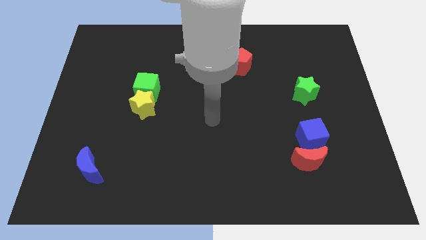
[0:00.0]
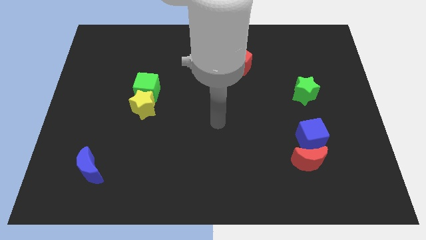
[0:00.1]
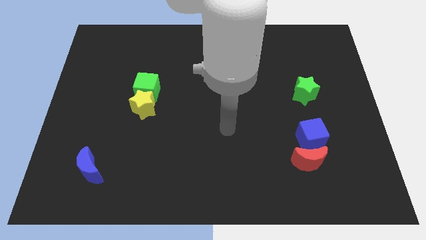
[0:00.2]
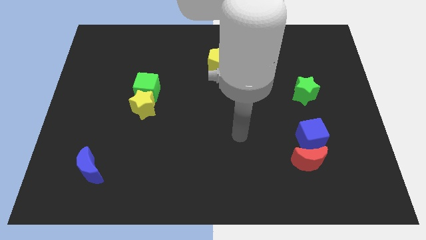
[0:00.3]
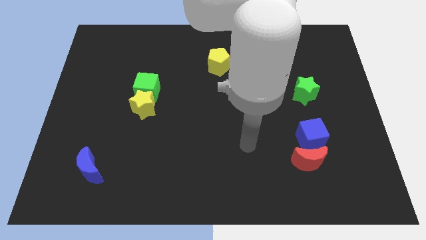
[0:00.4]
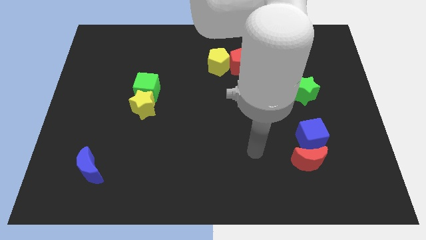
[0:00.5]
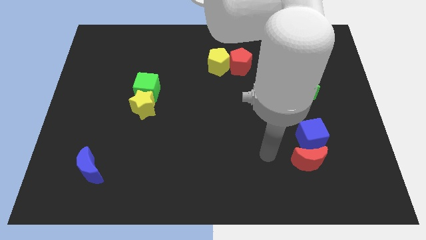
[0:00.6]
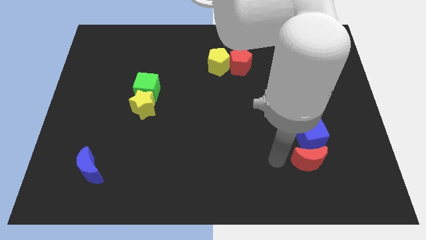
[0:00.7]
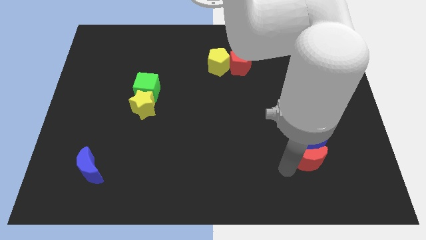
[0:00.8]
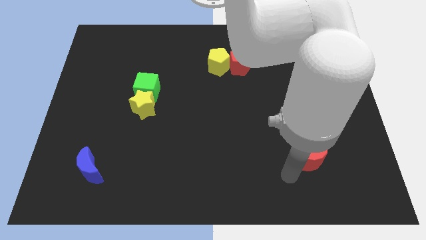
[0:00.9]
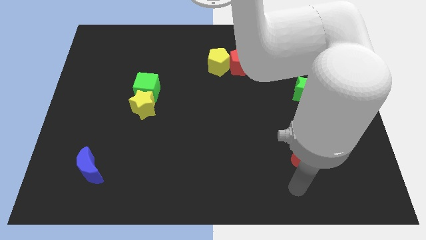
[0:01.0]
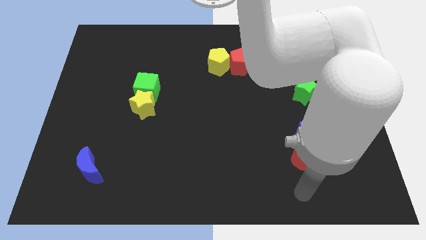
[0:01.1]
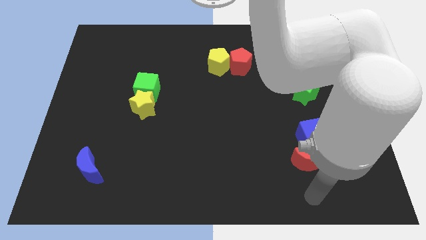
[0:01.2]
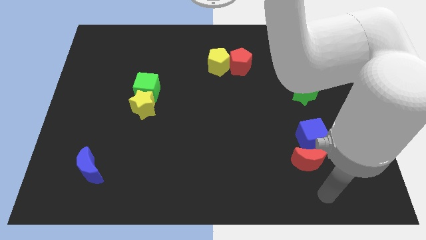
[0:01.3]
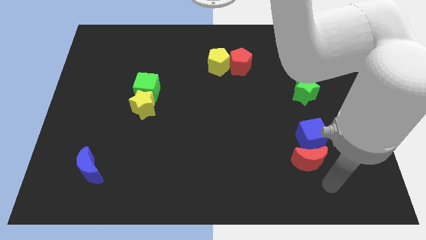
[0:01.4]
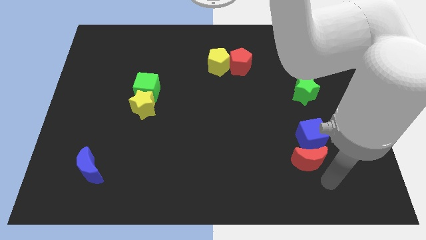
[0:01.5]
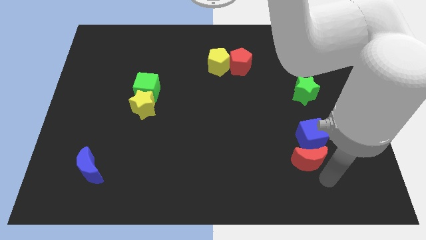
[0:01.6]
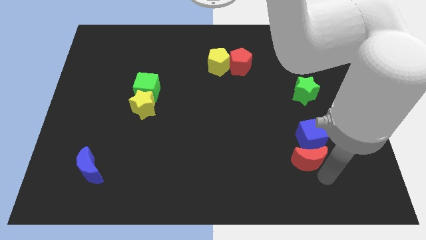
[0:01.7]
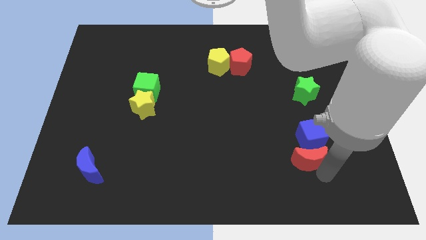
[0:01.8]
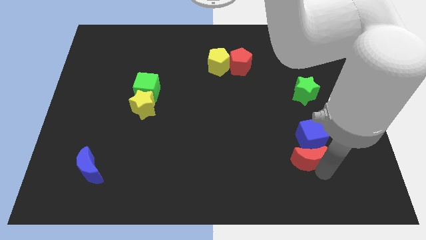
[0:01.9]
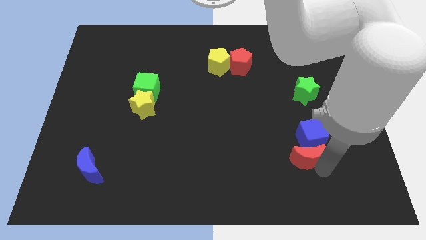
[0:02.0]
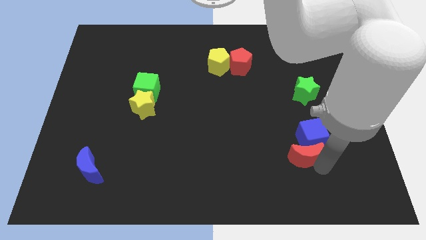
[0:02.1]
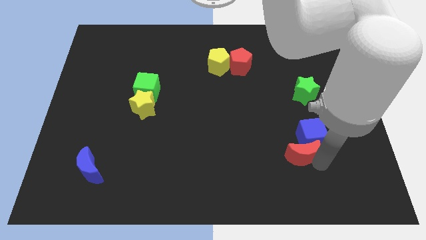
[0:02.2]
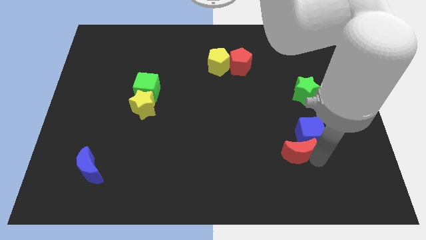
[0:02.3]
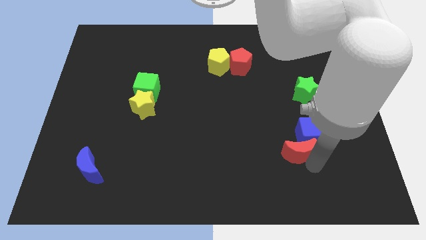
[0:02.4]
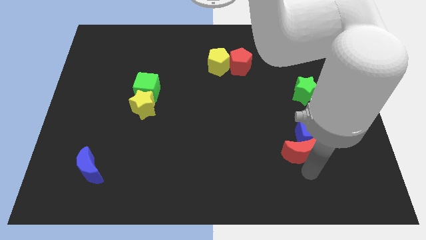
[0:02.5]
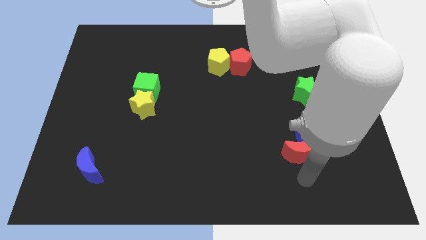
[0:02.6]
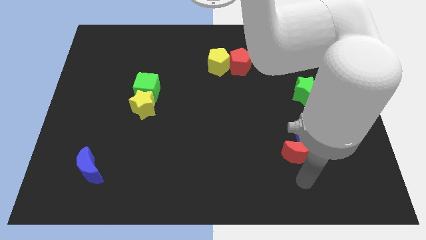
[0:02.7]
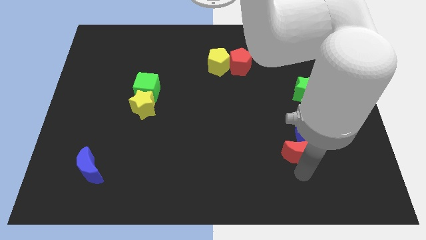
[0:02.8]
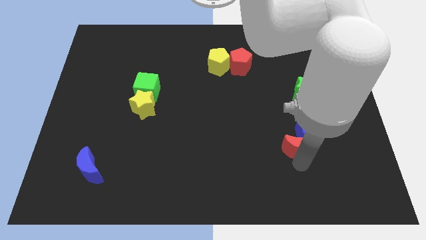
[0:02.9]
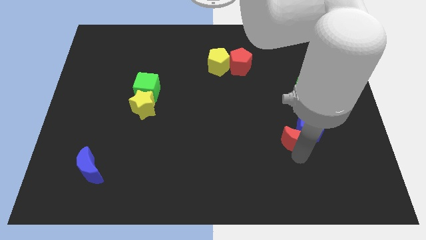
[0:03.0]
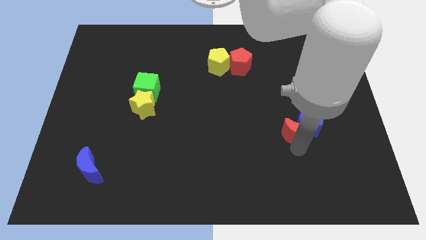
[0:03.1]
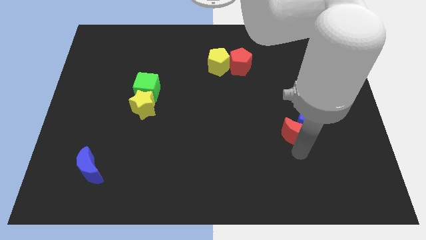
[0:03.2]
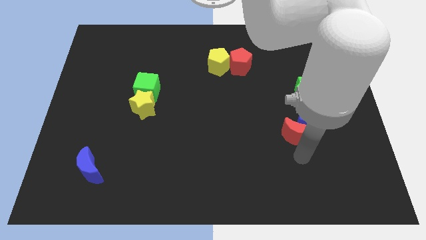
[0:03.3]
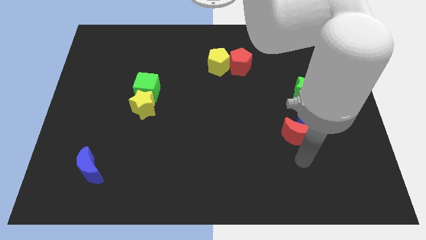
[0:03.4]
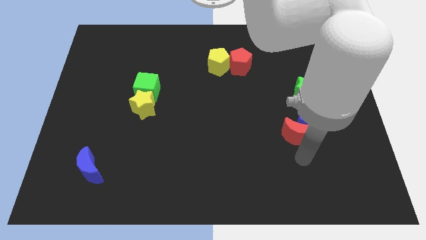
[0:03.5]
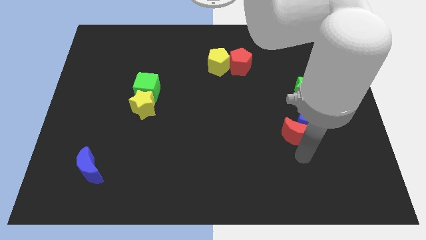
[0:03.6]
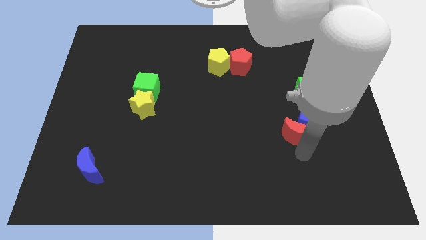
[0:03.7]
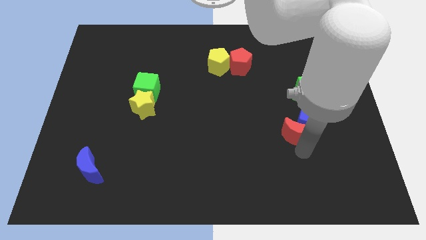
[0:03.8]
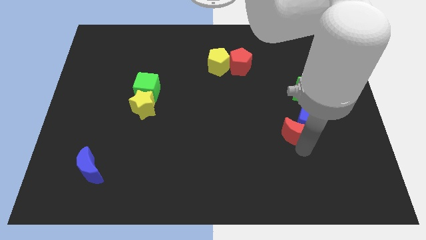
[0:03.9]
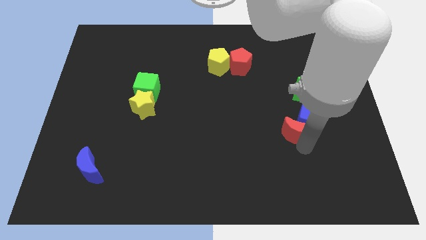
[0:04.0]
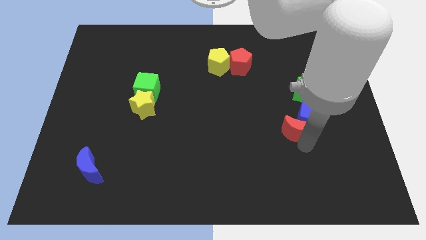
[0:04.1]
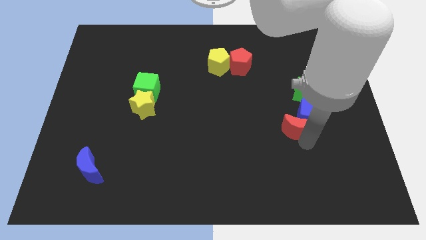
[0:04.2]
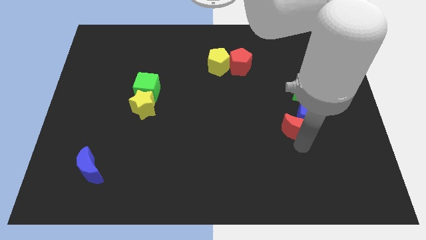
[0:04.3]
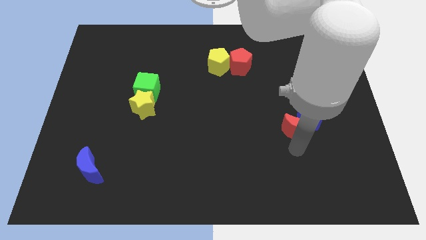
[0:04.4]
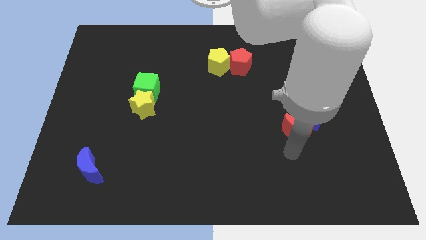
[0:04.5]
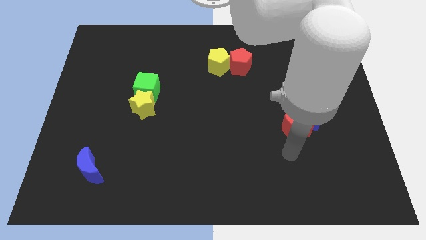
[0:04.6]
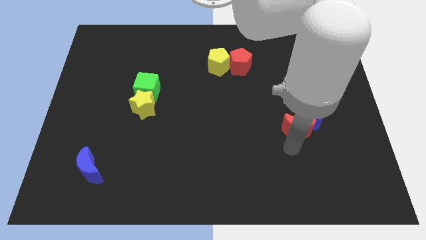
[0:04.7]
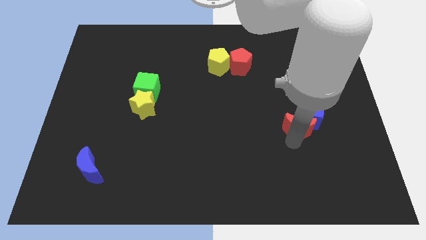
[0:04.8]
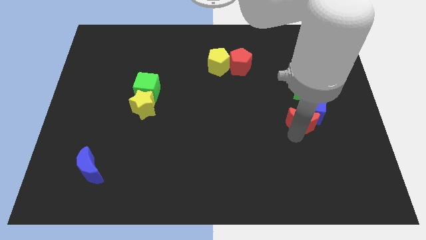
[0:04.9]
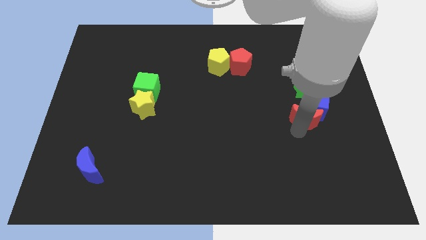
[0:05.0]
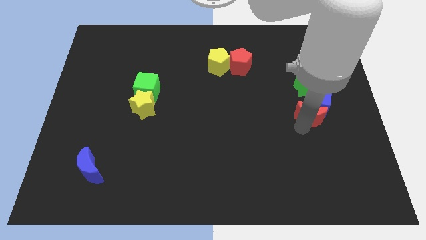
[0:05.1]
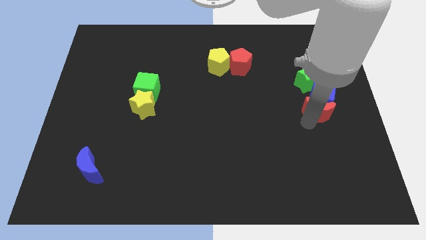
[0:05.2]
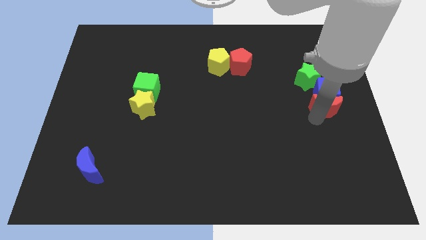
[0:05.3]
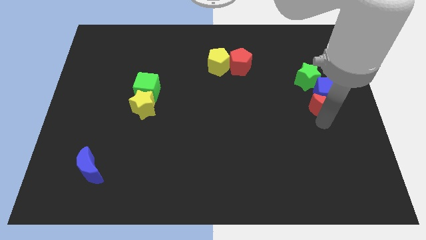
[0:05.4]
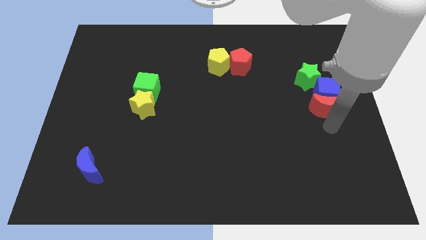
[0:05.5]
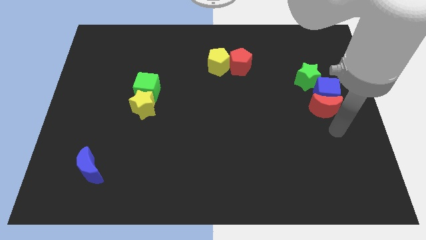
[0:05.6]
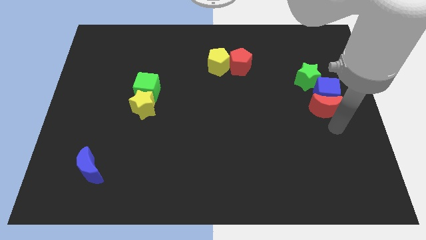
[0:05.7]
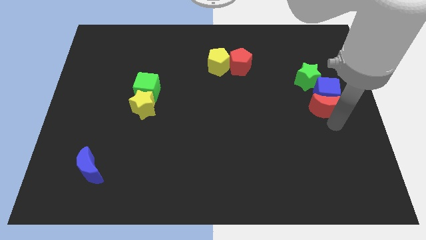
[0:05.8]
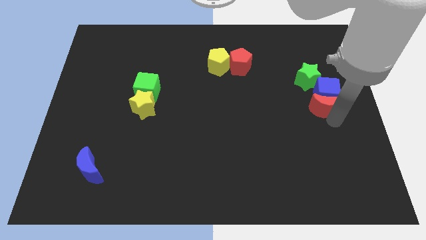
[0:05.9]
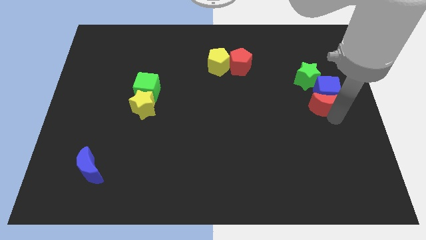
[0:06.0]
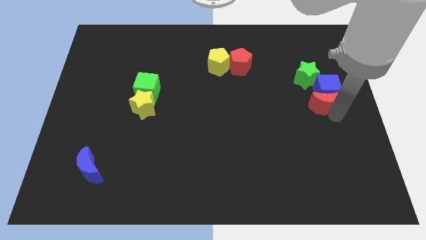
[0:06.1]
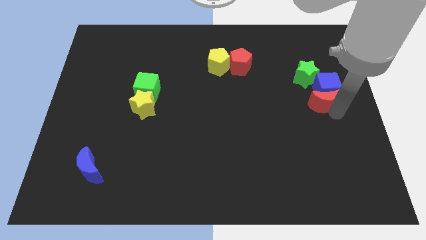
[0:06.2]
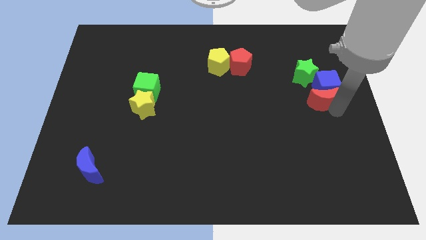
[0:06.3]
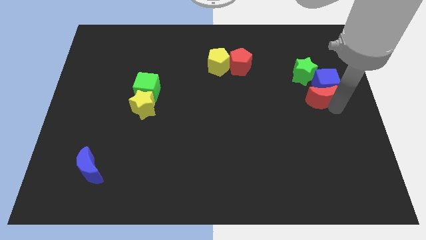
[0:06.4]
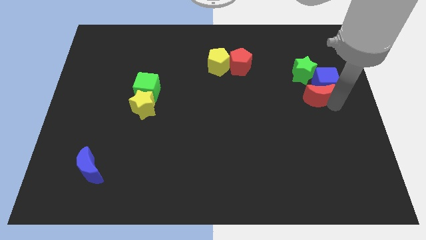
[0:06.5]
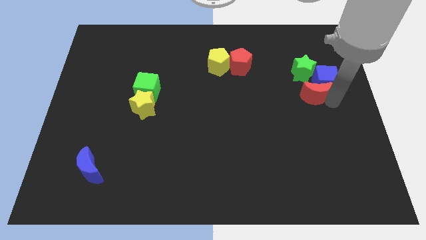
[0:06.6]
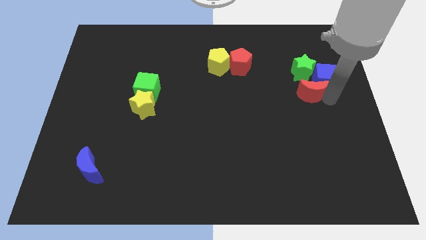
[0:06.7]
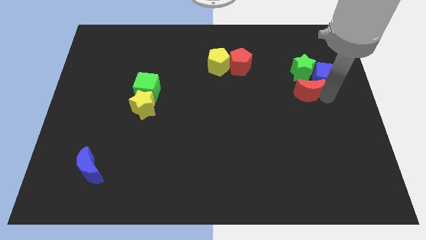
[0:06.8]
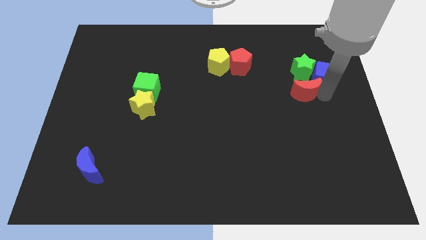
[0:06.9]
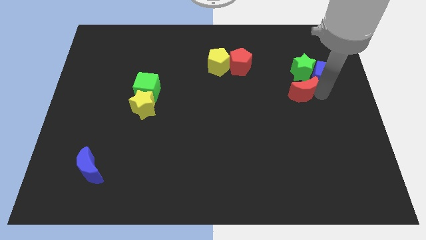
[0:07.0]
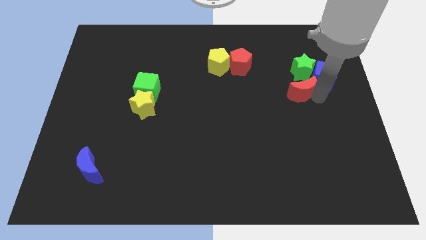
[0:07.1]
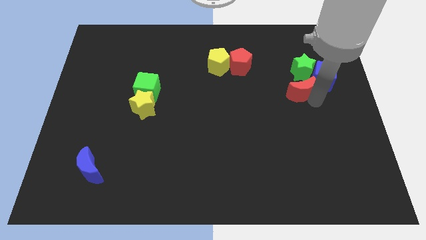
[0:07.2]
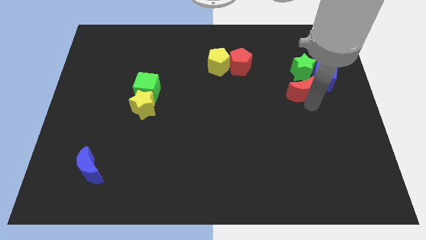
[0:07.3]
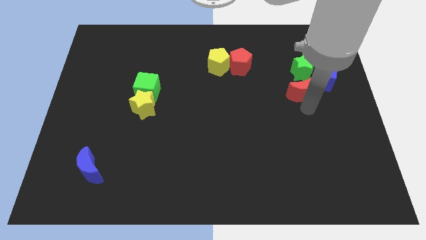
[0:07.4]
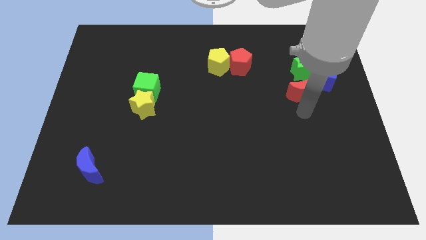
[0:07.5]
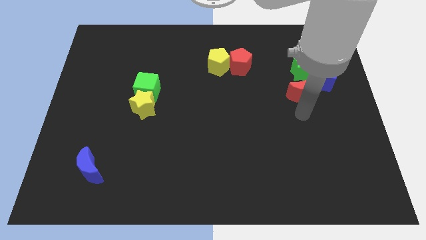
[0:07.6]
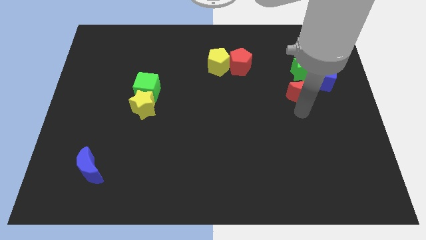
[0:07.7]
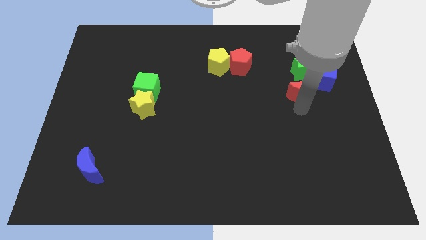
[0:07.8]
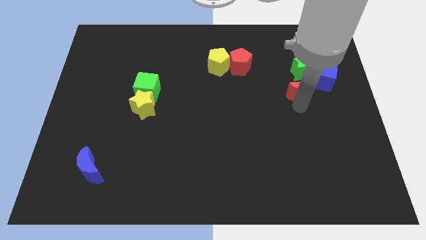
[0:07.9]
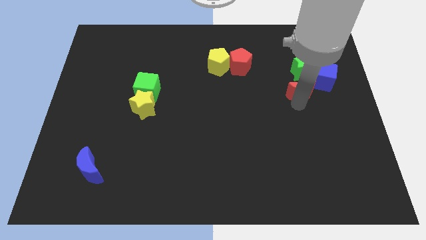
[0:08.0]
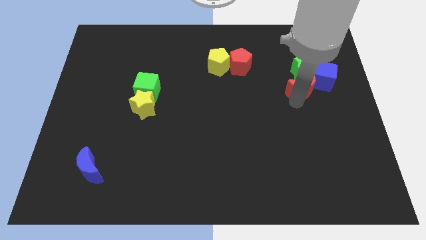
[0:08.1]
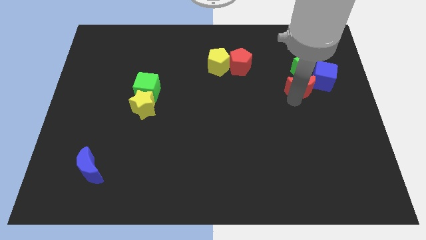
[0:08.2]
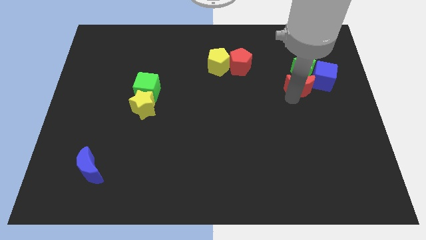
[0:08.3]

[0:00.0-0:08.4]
slide the red moon next to the green star
